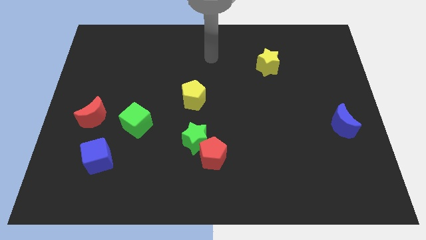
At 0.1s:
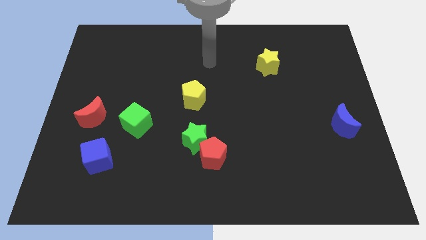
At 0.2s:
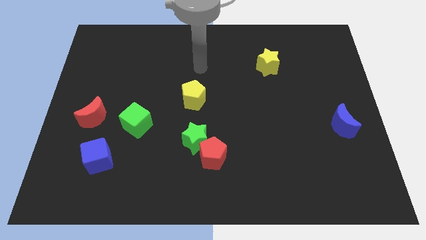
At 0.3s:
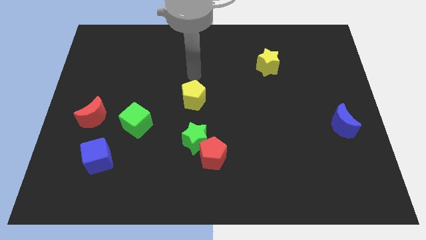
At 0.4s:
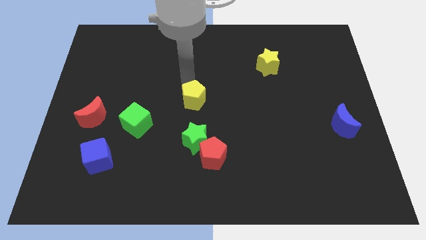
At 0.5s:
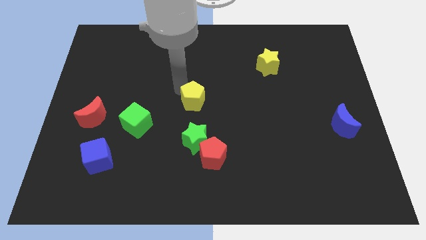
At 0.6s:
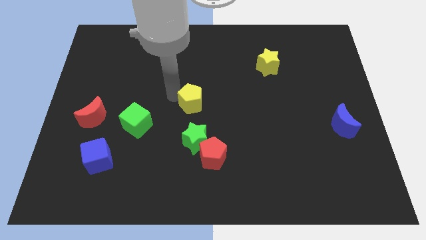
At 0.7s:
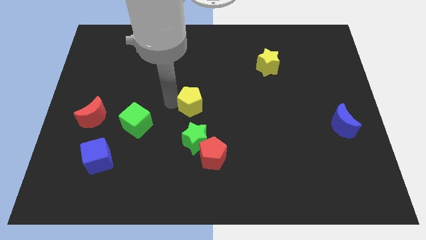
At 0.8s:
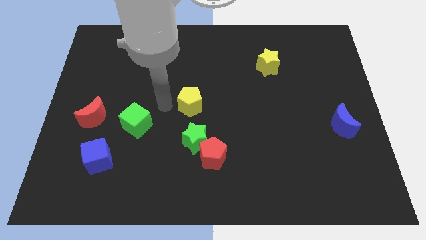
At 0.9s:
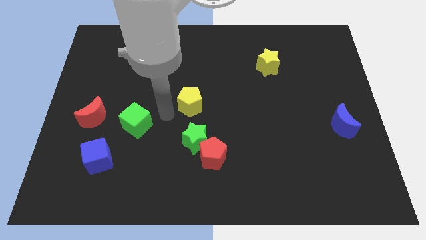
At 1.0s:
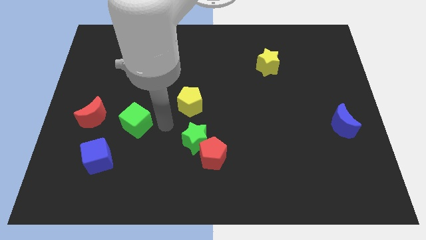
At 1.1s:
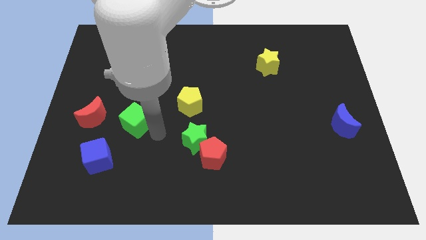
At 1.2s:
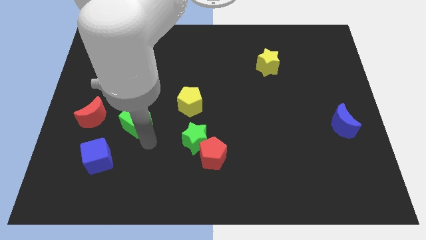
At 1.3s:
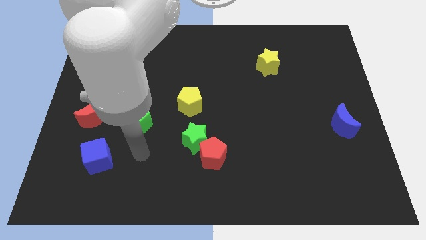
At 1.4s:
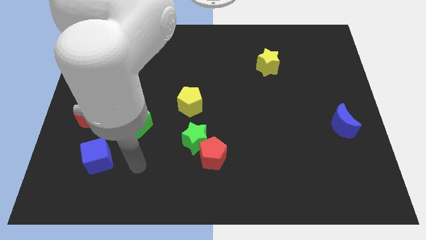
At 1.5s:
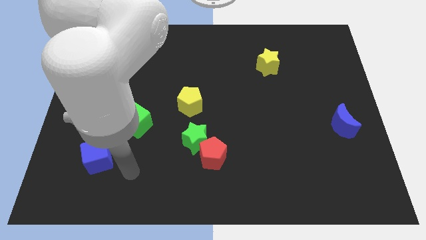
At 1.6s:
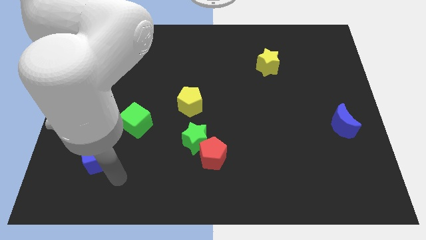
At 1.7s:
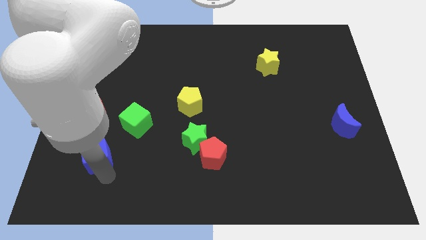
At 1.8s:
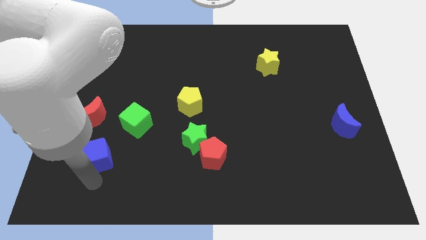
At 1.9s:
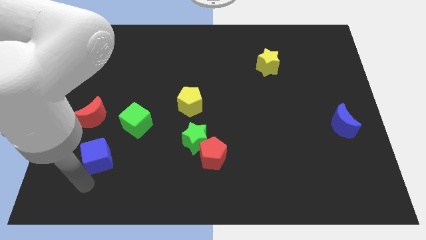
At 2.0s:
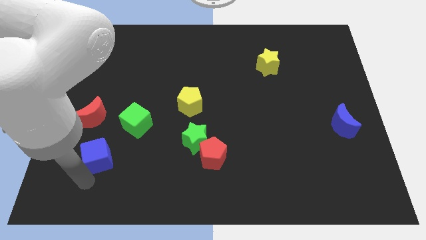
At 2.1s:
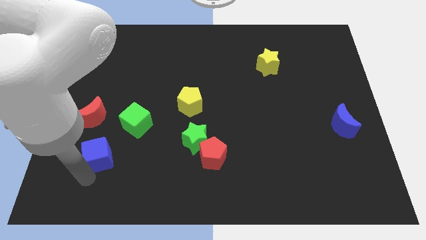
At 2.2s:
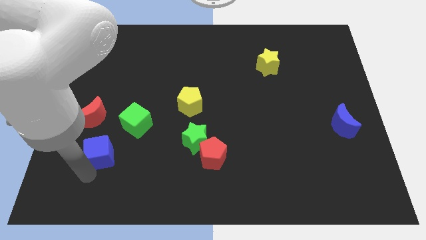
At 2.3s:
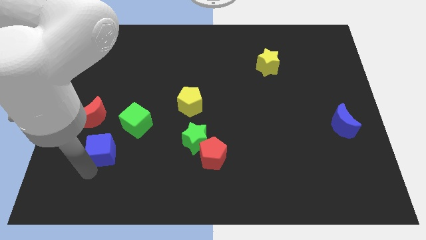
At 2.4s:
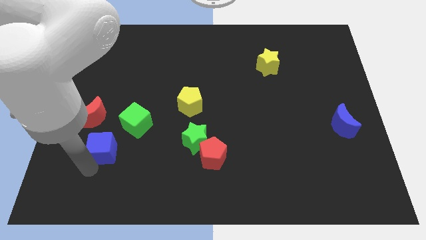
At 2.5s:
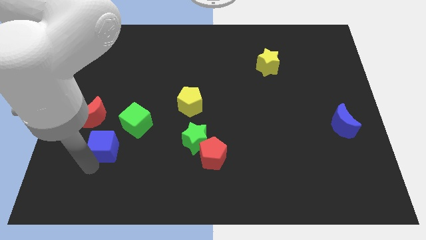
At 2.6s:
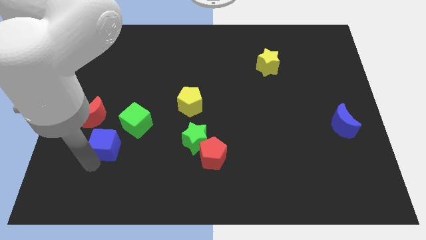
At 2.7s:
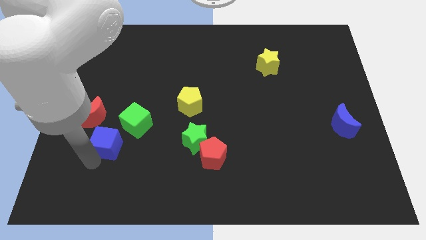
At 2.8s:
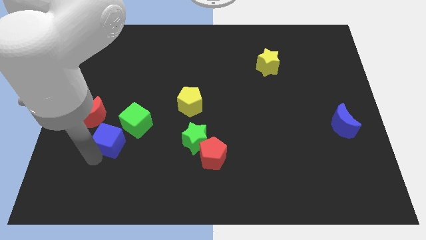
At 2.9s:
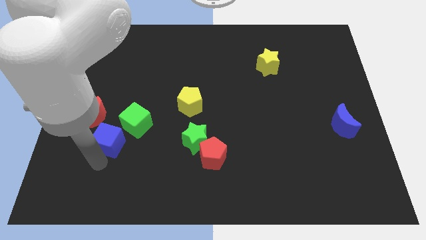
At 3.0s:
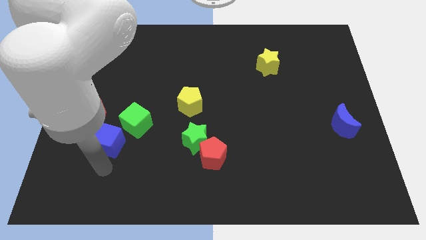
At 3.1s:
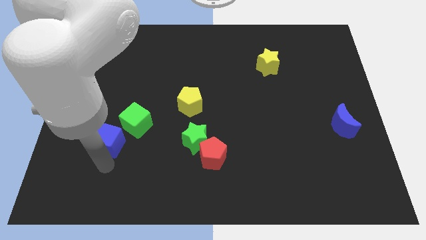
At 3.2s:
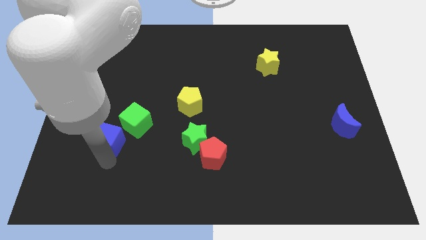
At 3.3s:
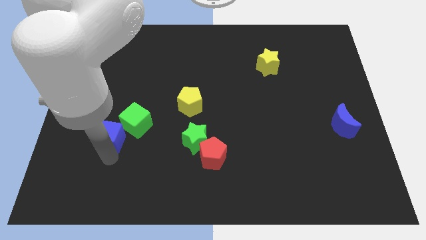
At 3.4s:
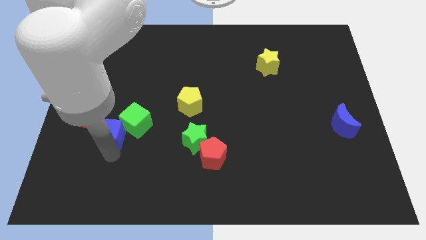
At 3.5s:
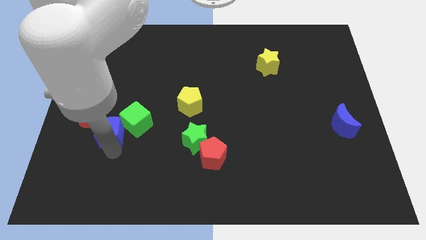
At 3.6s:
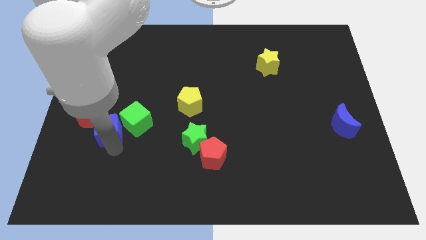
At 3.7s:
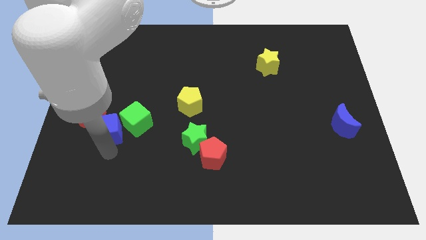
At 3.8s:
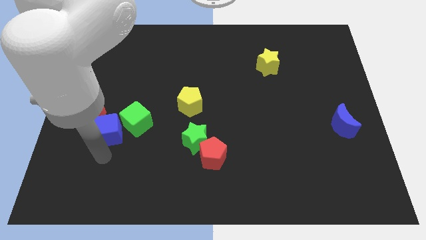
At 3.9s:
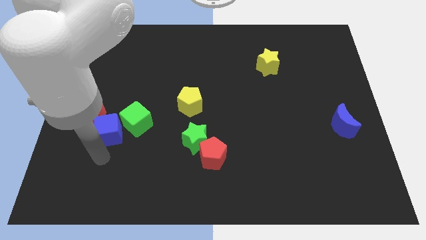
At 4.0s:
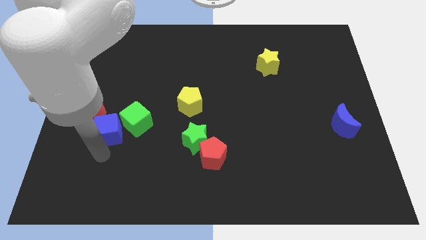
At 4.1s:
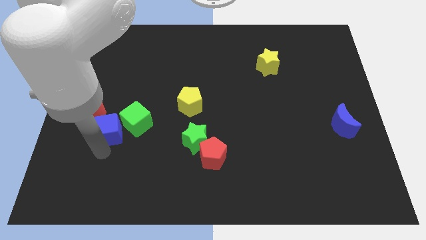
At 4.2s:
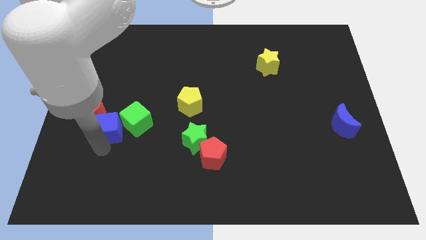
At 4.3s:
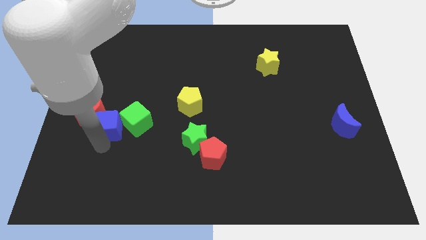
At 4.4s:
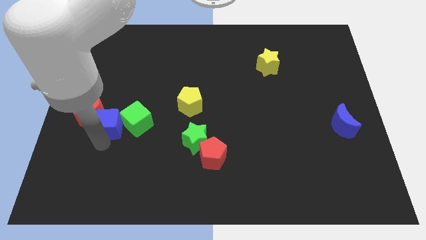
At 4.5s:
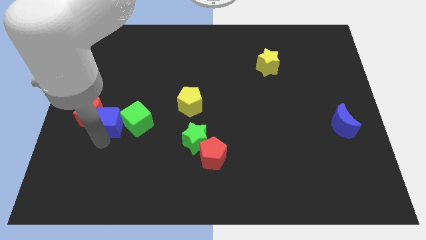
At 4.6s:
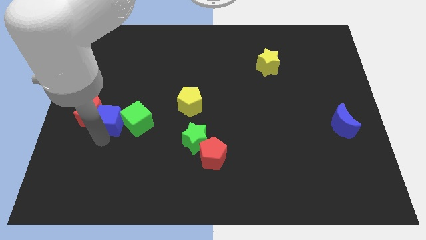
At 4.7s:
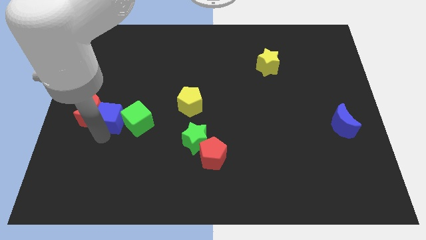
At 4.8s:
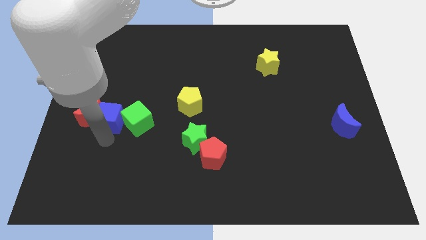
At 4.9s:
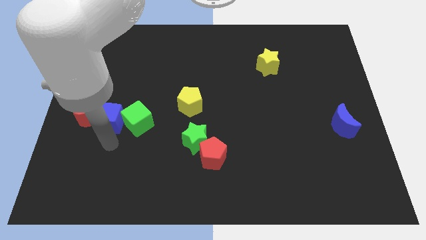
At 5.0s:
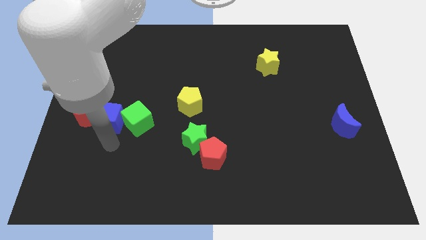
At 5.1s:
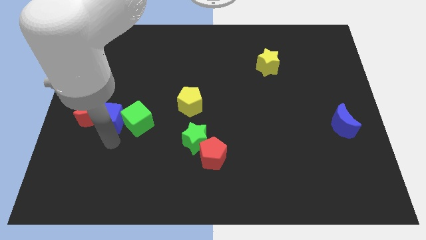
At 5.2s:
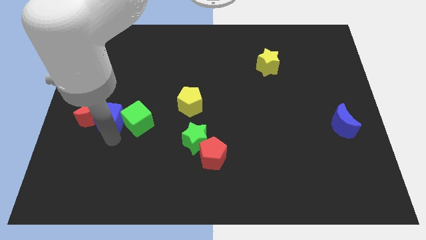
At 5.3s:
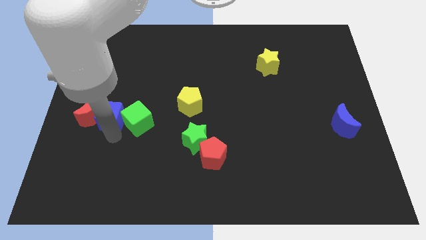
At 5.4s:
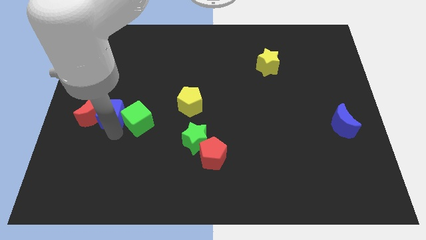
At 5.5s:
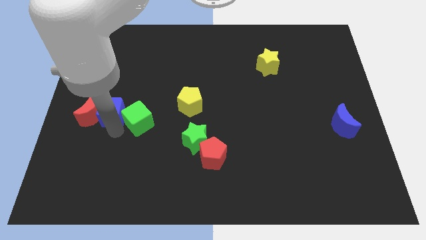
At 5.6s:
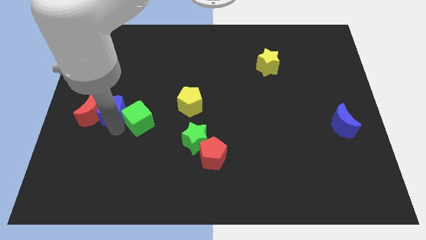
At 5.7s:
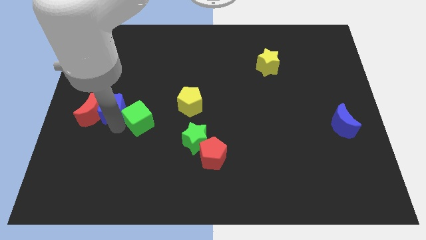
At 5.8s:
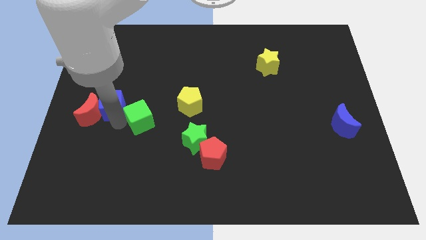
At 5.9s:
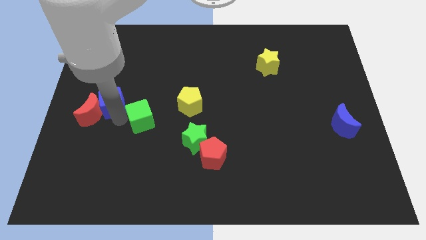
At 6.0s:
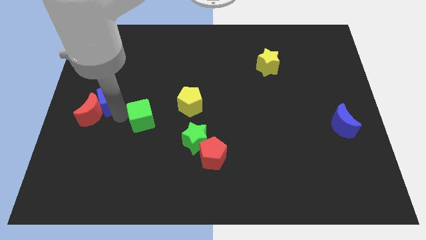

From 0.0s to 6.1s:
move the blue cube to the top of the red moon

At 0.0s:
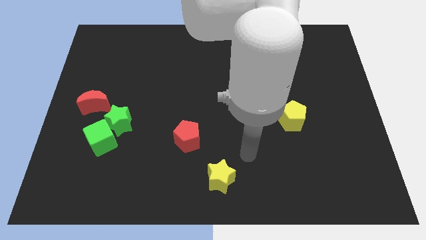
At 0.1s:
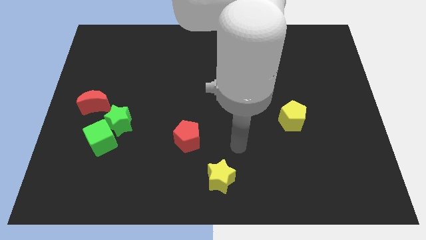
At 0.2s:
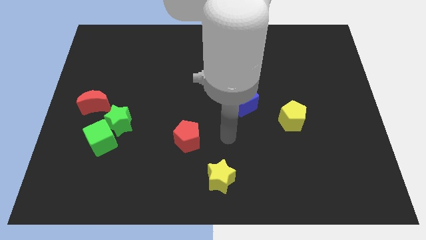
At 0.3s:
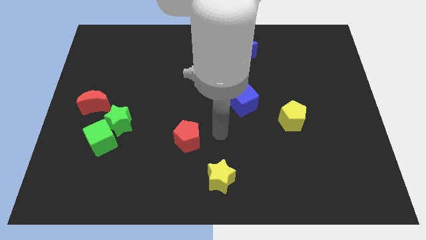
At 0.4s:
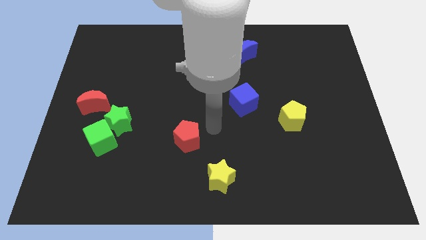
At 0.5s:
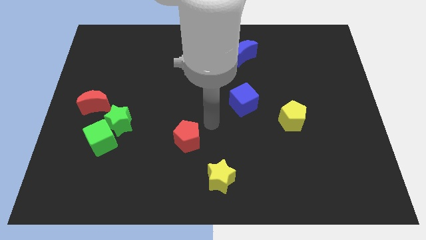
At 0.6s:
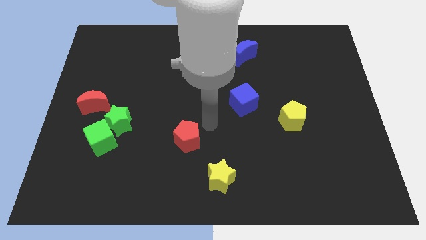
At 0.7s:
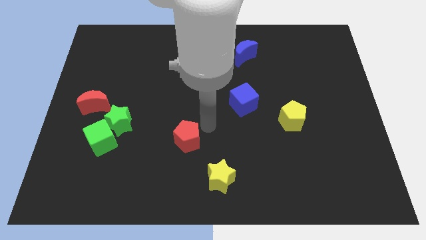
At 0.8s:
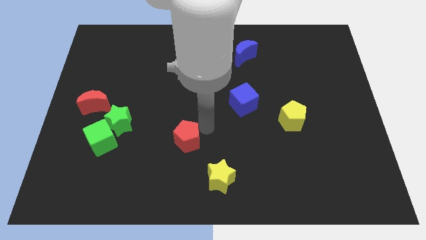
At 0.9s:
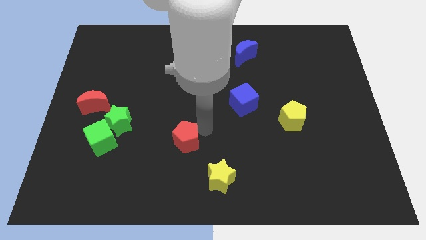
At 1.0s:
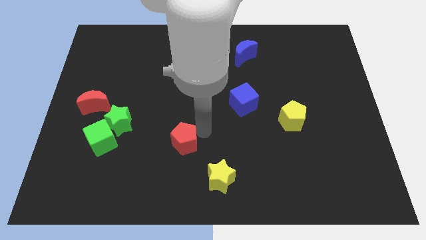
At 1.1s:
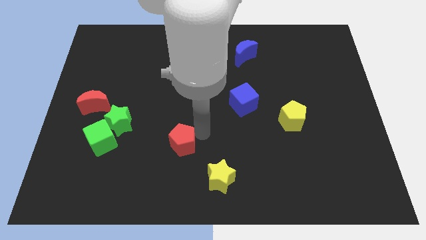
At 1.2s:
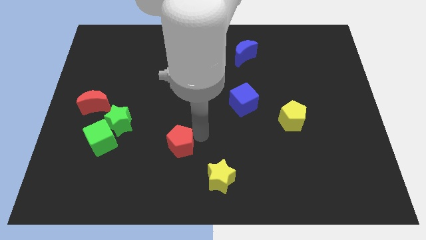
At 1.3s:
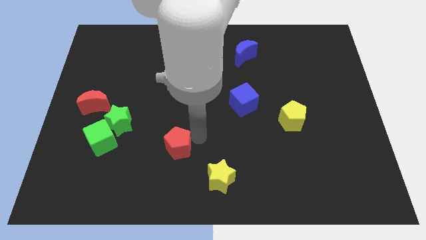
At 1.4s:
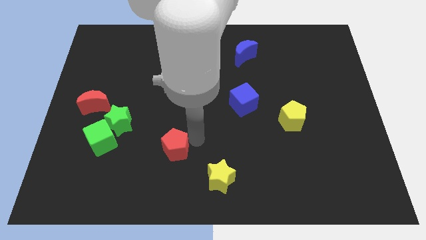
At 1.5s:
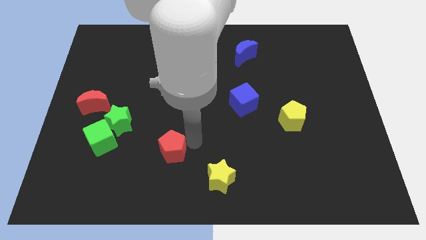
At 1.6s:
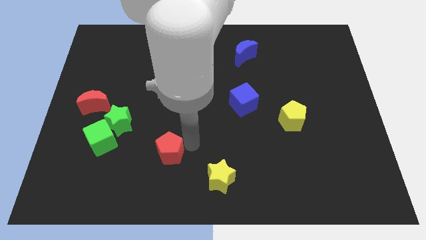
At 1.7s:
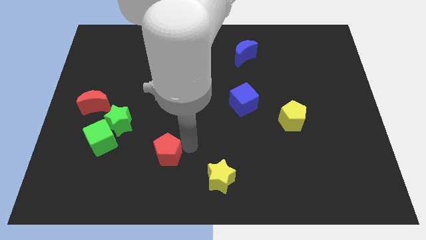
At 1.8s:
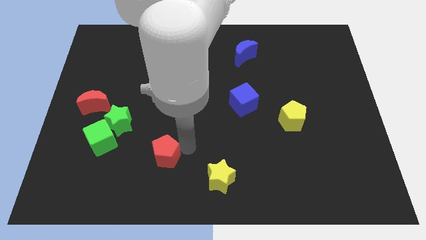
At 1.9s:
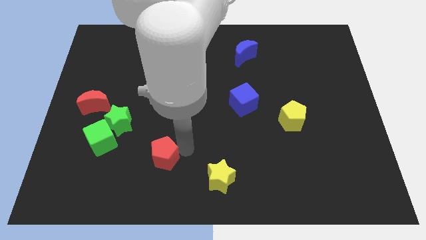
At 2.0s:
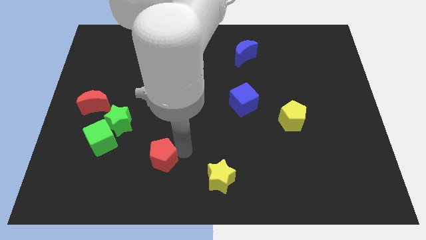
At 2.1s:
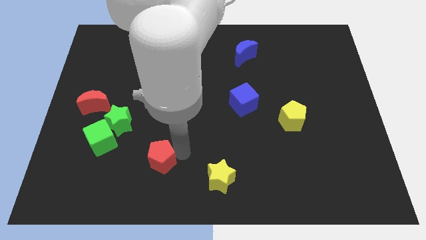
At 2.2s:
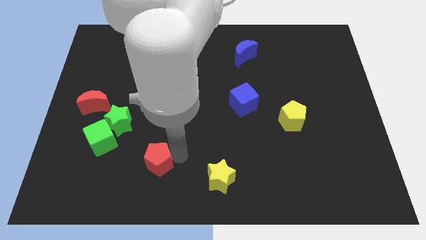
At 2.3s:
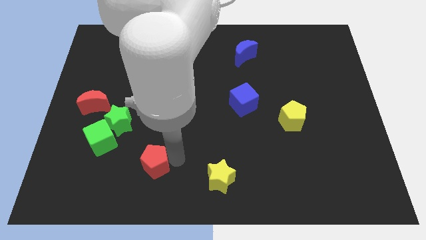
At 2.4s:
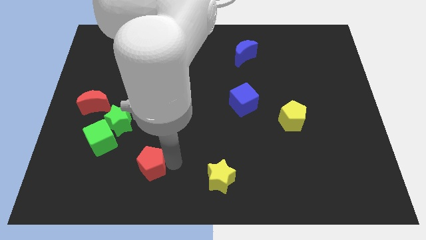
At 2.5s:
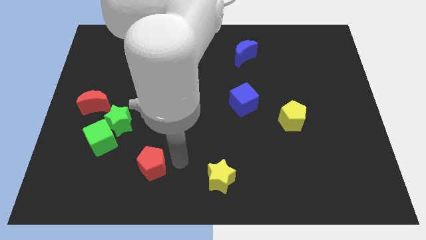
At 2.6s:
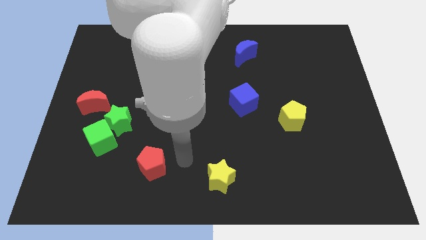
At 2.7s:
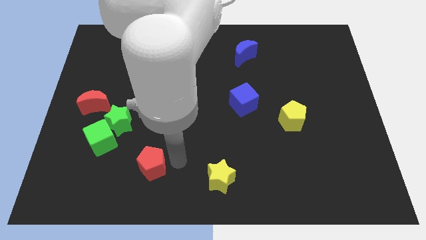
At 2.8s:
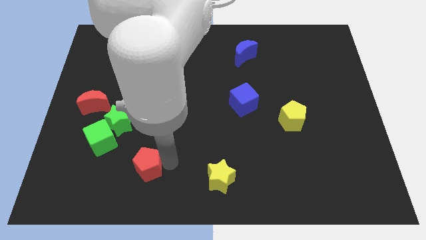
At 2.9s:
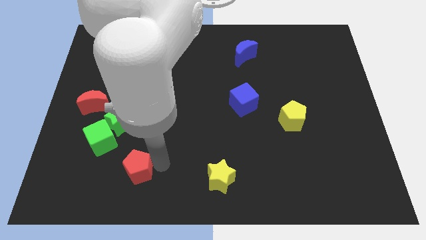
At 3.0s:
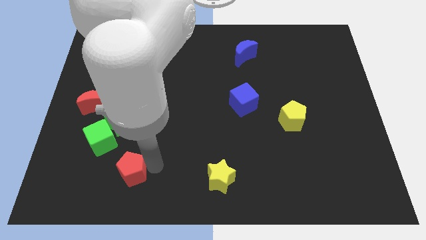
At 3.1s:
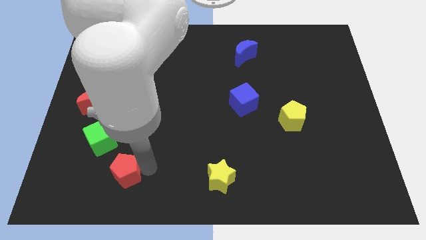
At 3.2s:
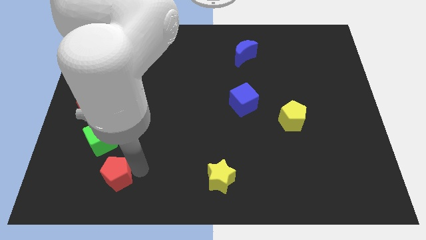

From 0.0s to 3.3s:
slide the red pentagon below the green cube
